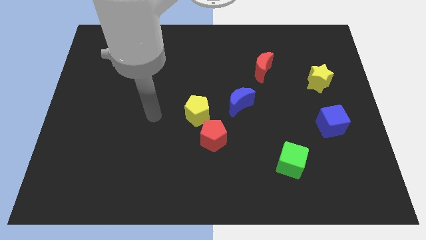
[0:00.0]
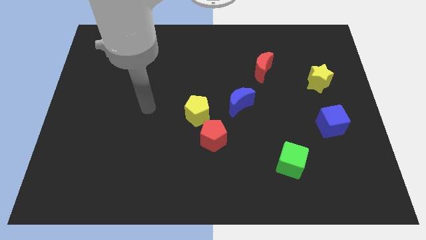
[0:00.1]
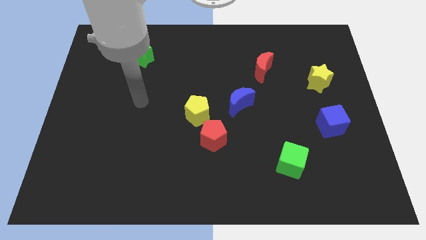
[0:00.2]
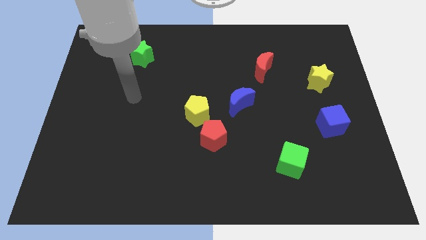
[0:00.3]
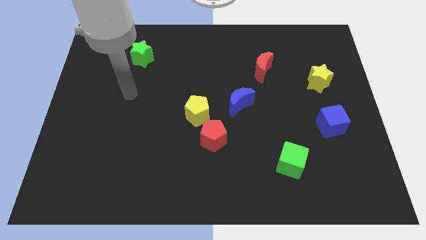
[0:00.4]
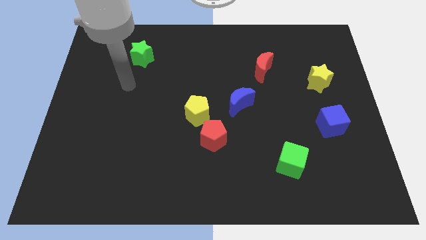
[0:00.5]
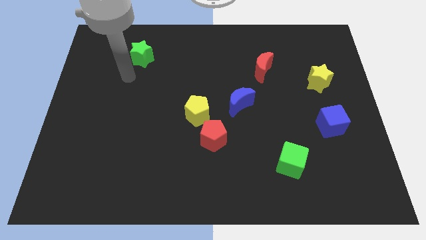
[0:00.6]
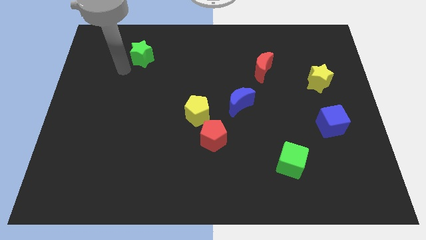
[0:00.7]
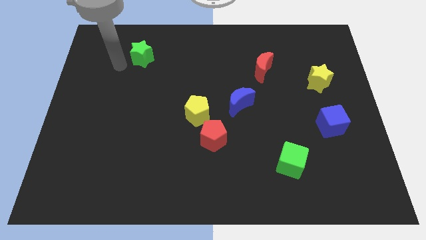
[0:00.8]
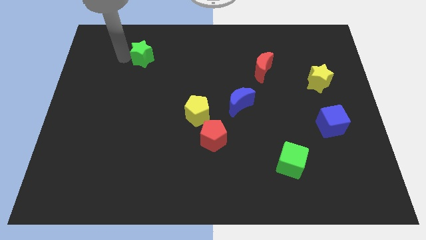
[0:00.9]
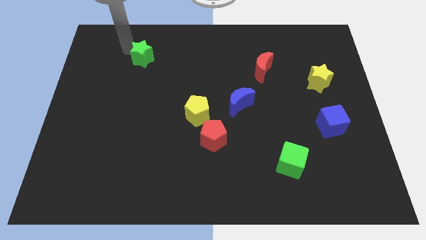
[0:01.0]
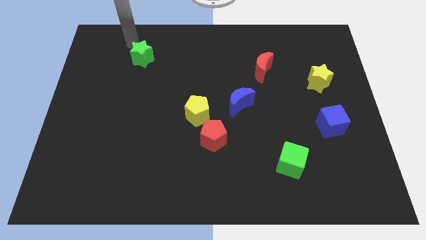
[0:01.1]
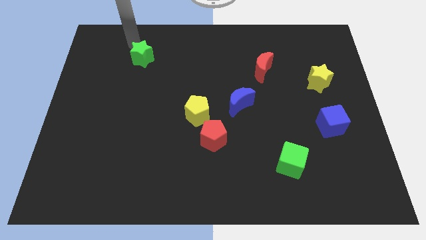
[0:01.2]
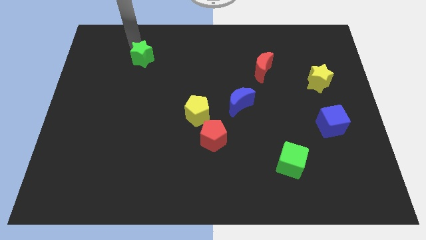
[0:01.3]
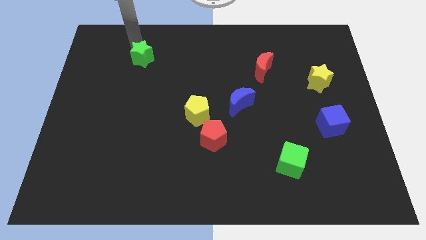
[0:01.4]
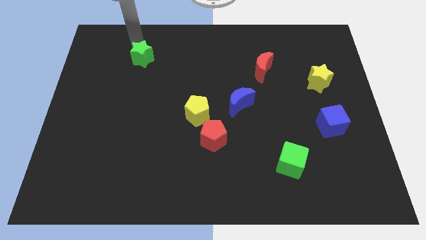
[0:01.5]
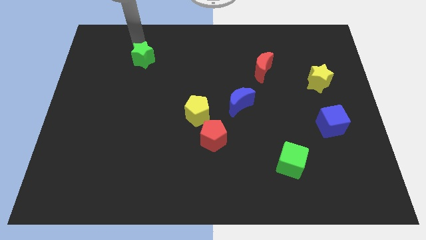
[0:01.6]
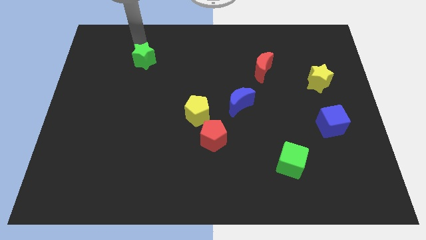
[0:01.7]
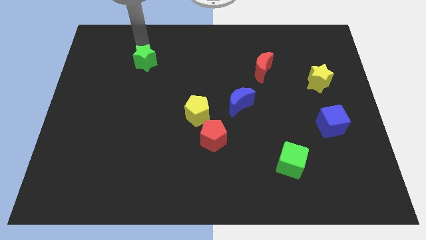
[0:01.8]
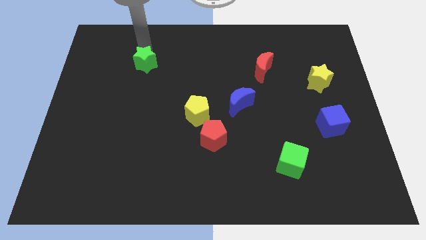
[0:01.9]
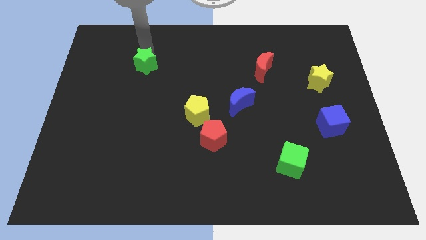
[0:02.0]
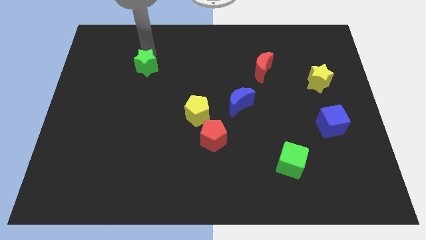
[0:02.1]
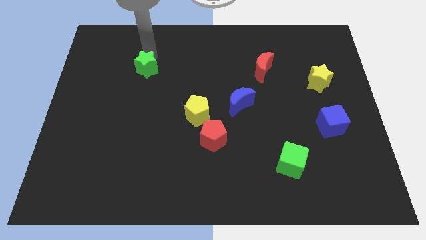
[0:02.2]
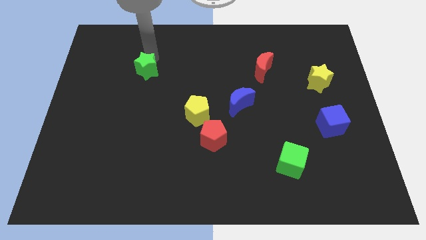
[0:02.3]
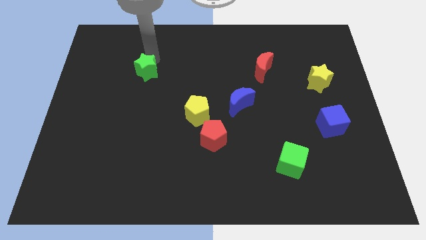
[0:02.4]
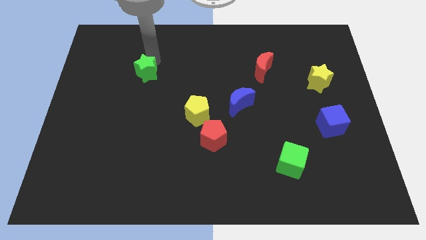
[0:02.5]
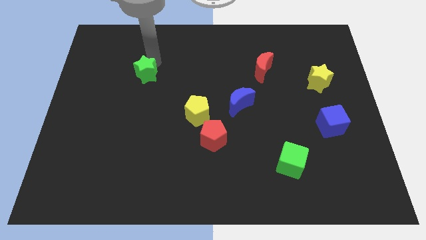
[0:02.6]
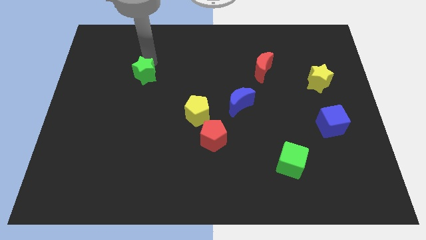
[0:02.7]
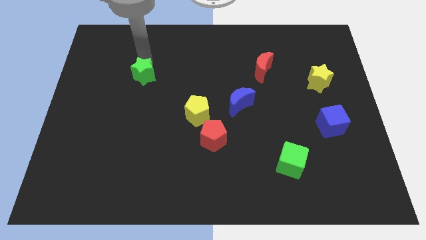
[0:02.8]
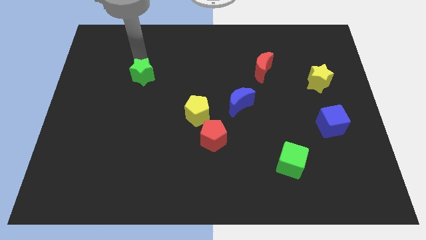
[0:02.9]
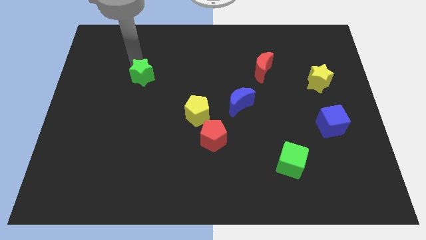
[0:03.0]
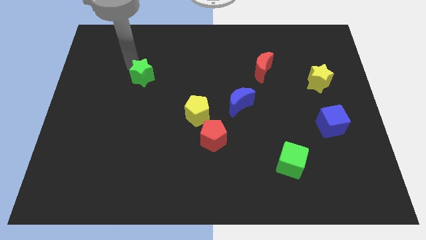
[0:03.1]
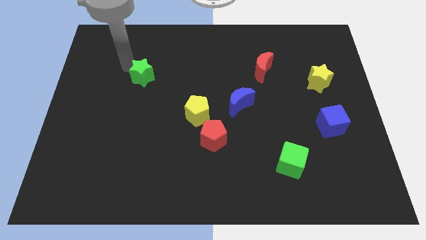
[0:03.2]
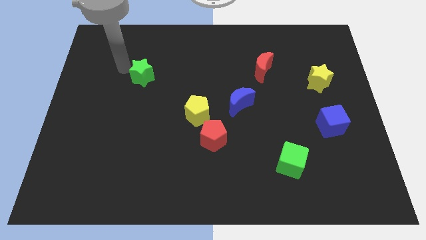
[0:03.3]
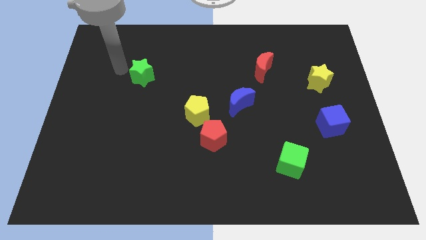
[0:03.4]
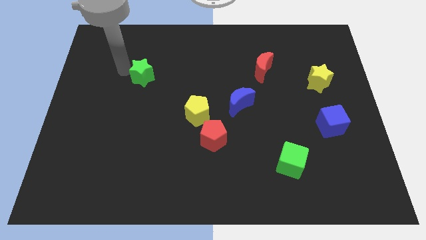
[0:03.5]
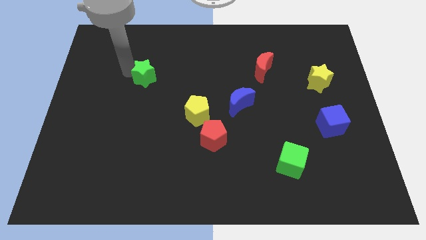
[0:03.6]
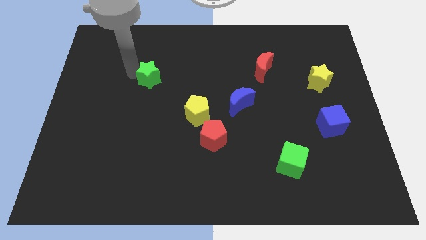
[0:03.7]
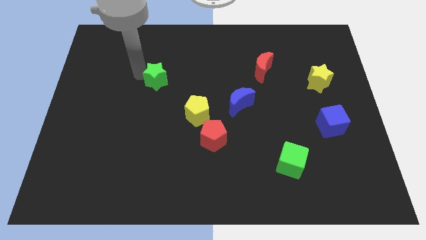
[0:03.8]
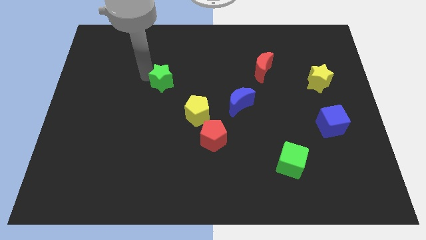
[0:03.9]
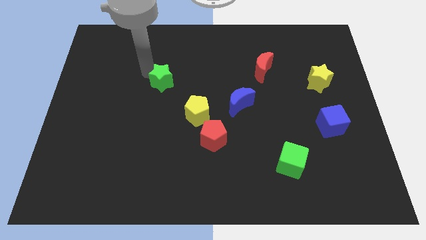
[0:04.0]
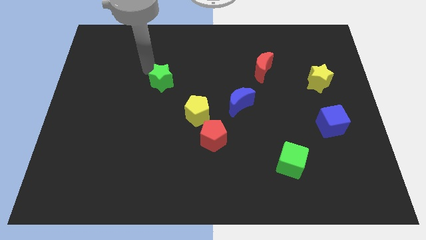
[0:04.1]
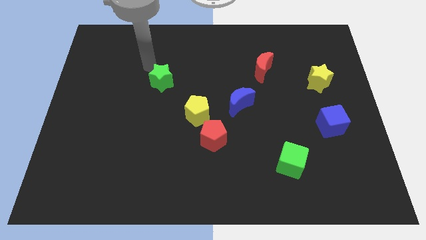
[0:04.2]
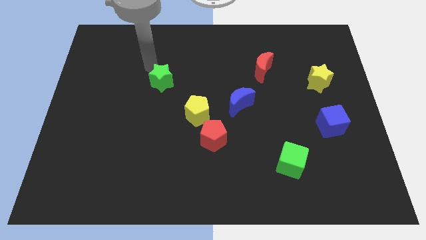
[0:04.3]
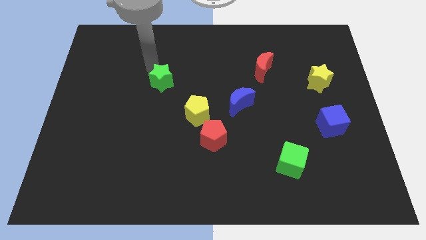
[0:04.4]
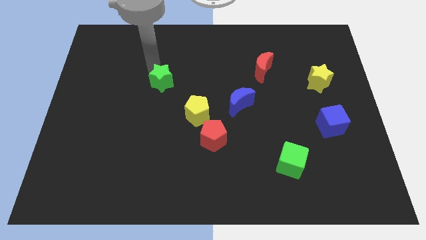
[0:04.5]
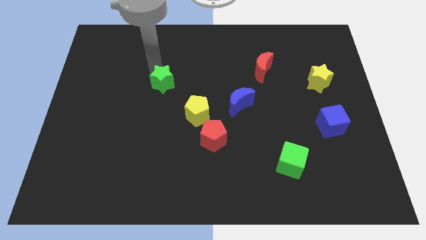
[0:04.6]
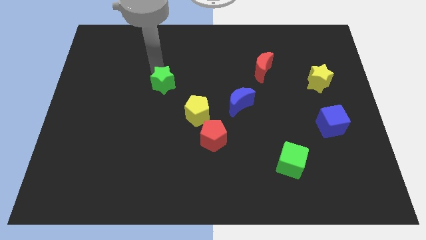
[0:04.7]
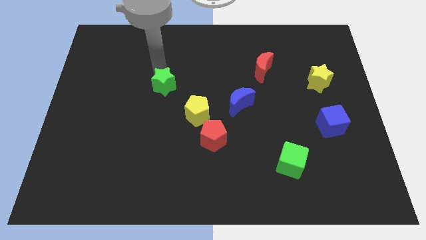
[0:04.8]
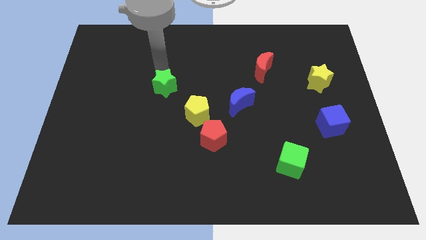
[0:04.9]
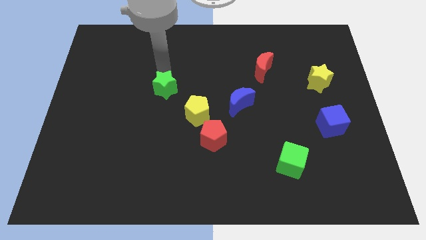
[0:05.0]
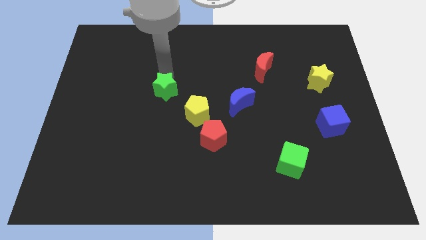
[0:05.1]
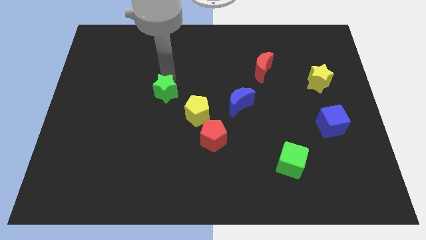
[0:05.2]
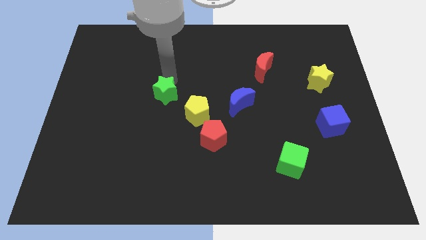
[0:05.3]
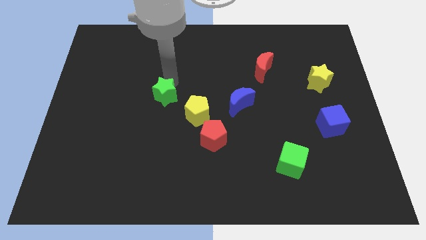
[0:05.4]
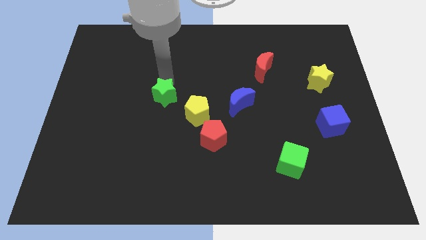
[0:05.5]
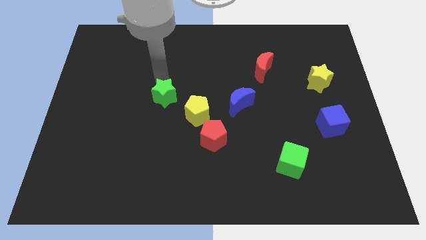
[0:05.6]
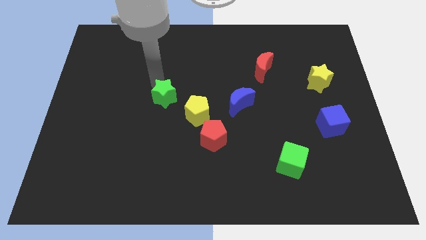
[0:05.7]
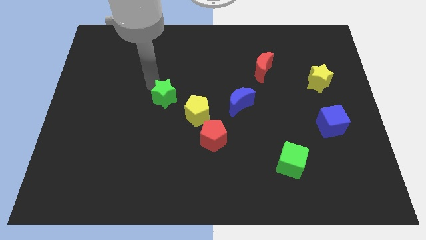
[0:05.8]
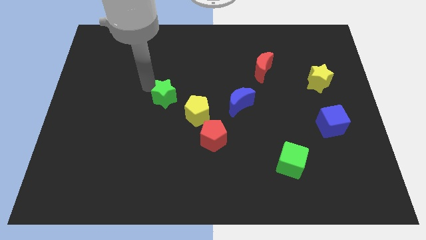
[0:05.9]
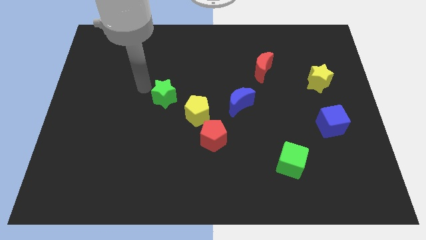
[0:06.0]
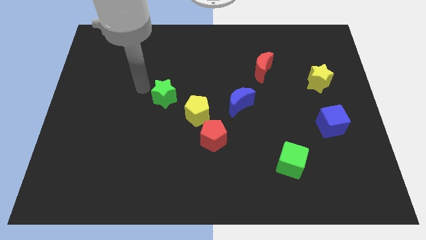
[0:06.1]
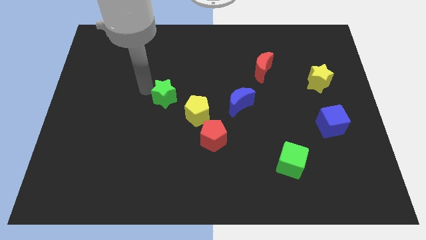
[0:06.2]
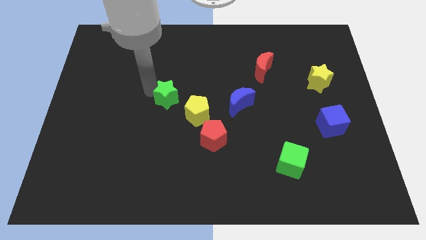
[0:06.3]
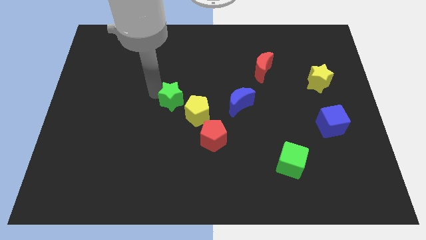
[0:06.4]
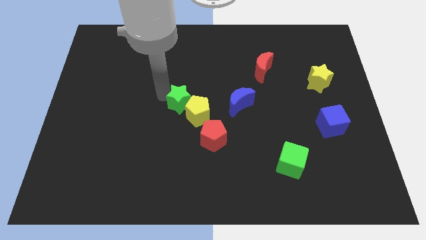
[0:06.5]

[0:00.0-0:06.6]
slide the green star close to the yellow pentagon

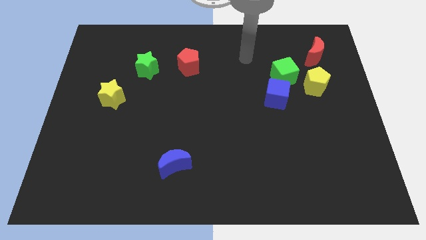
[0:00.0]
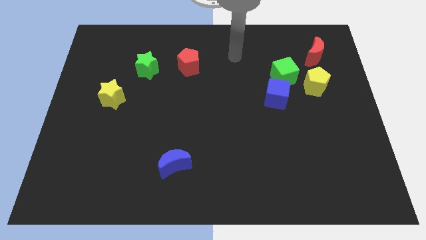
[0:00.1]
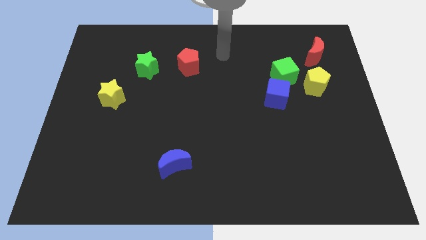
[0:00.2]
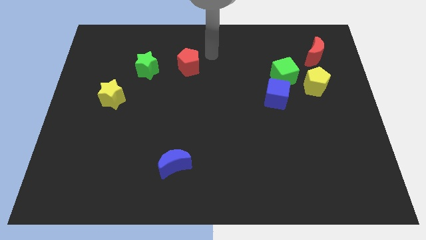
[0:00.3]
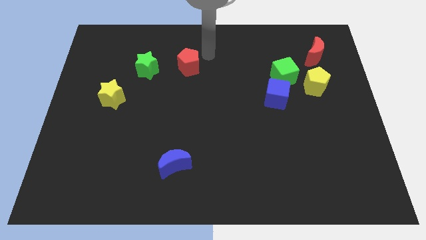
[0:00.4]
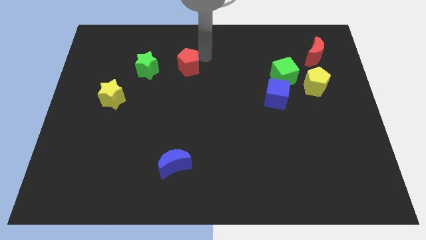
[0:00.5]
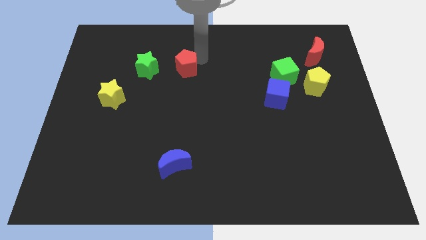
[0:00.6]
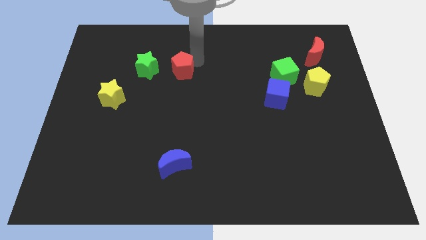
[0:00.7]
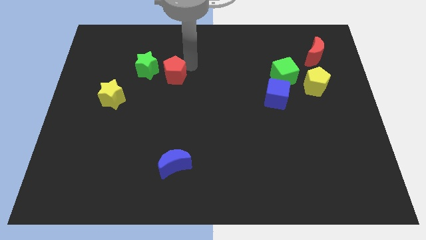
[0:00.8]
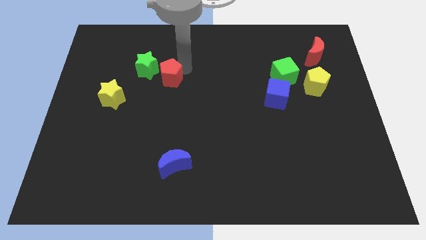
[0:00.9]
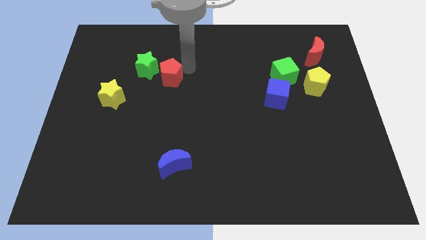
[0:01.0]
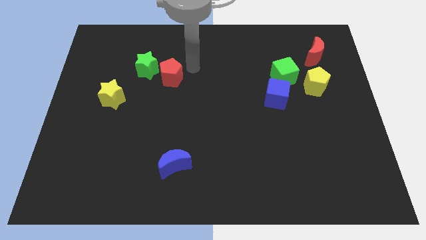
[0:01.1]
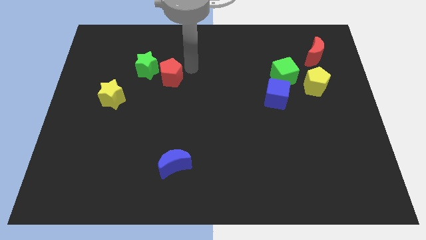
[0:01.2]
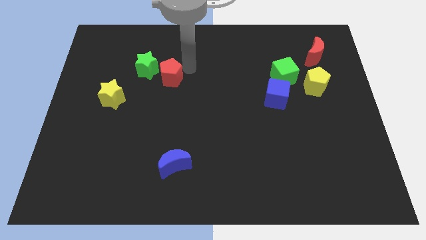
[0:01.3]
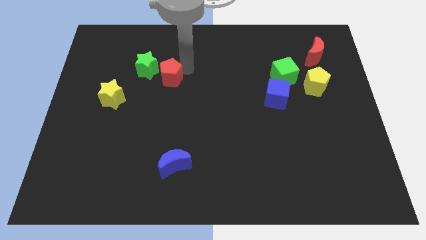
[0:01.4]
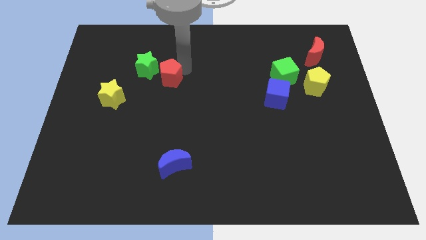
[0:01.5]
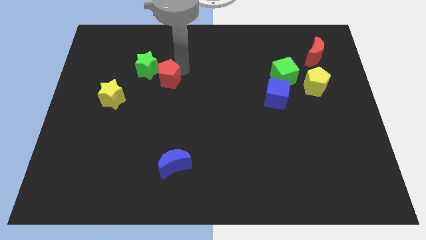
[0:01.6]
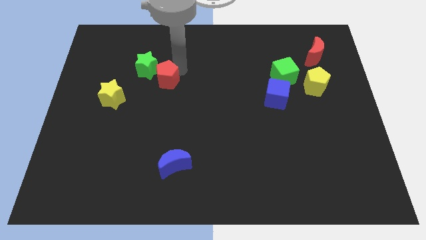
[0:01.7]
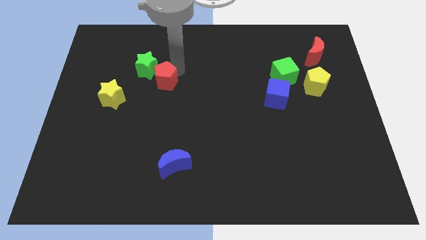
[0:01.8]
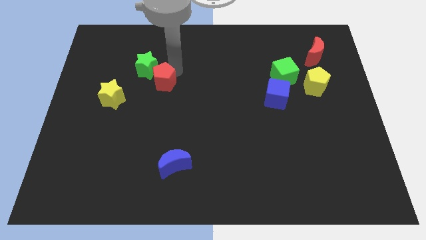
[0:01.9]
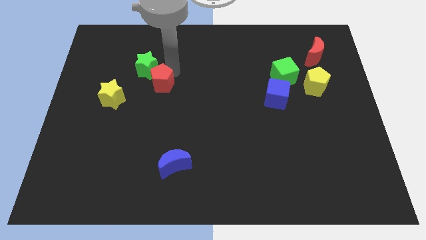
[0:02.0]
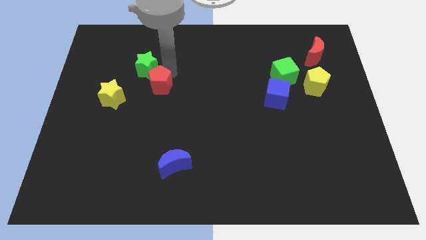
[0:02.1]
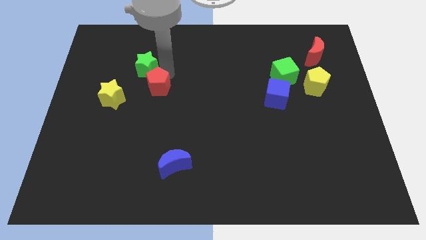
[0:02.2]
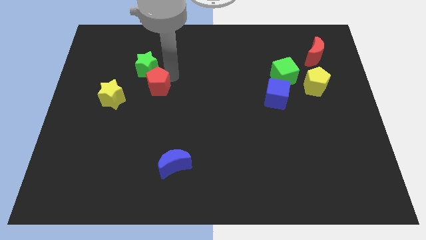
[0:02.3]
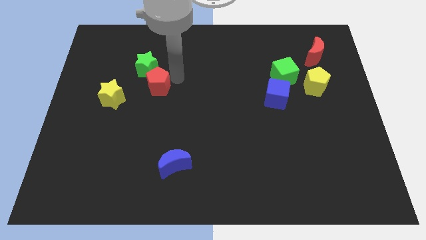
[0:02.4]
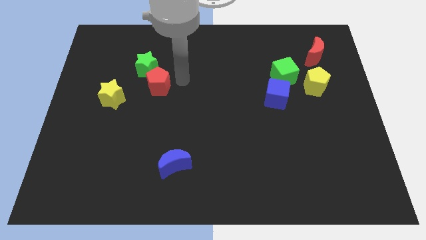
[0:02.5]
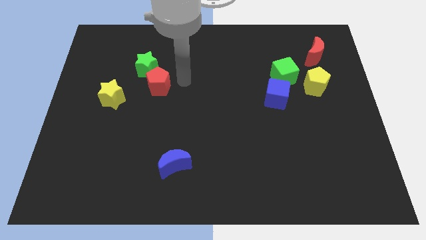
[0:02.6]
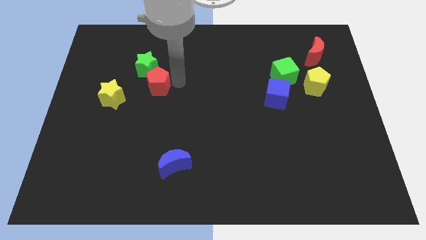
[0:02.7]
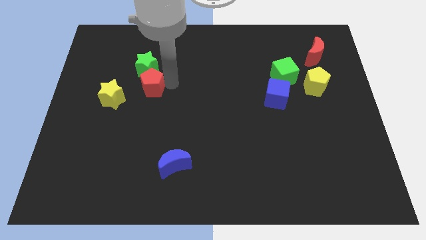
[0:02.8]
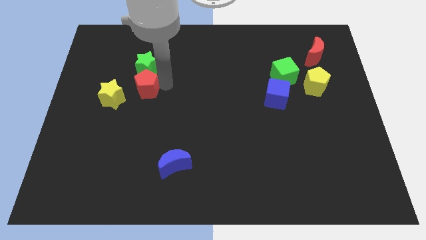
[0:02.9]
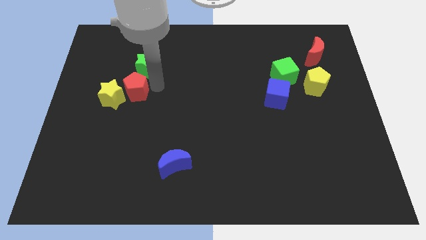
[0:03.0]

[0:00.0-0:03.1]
slide the red pentagon towards the yellow star
